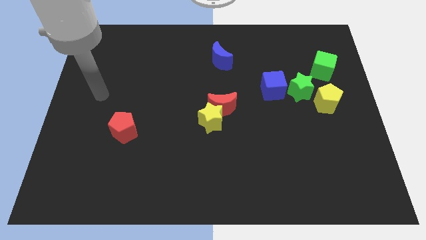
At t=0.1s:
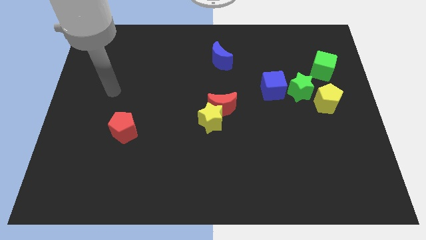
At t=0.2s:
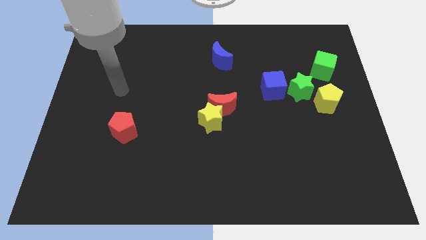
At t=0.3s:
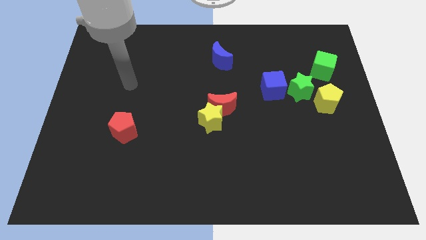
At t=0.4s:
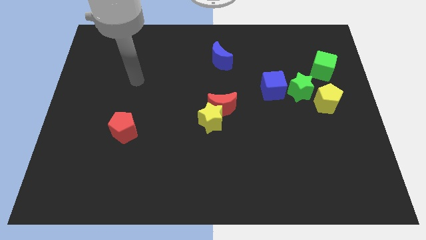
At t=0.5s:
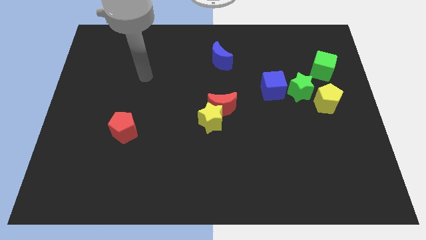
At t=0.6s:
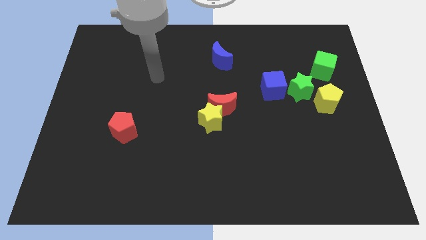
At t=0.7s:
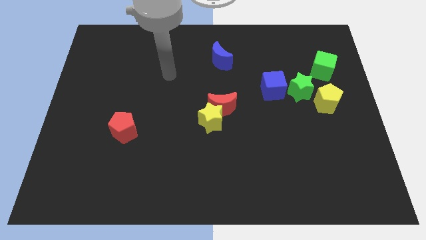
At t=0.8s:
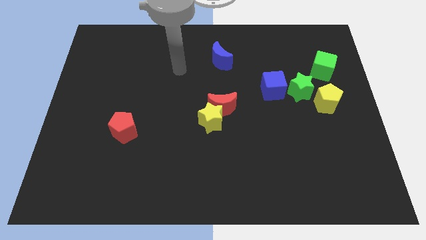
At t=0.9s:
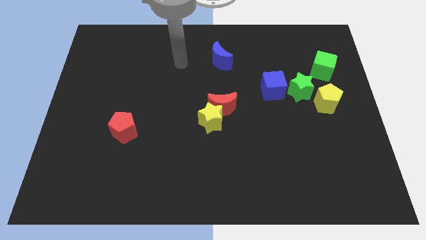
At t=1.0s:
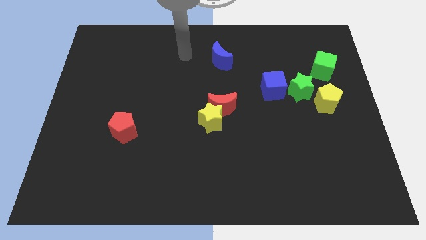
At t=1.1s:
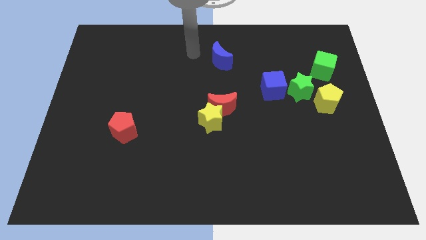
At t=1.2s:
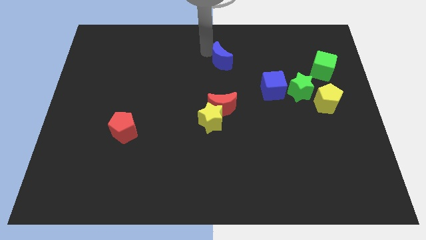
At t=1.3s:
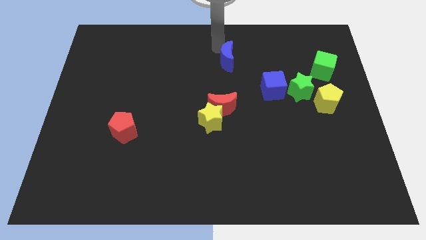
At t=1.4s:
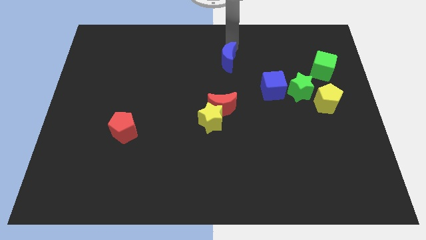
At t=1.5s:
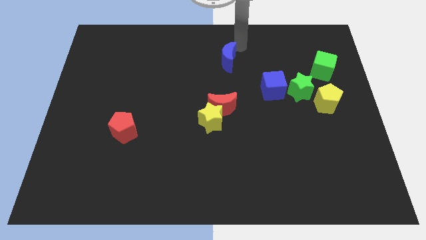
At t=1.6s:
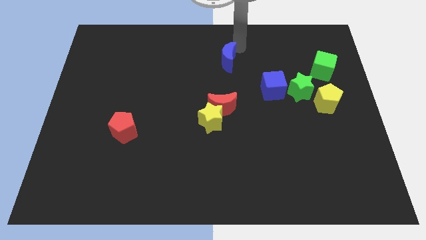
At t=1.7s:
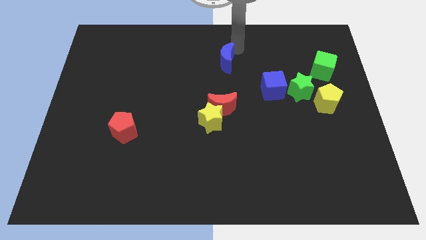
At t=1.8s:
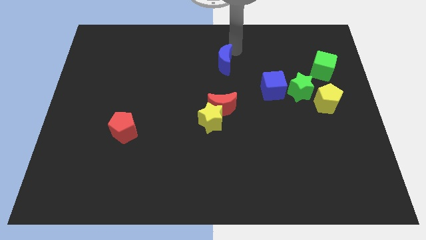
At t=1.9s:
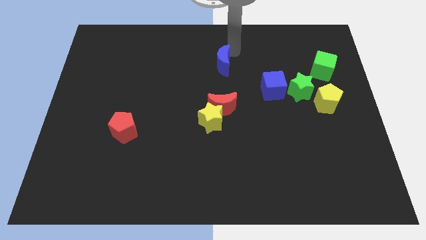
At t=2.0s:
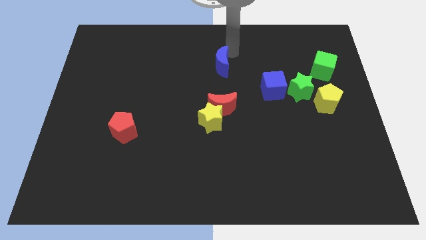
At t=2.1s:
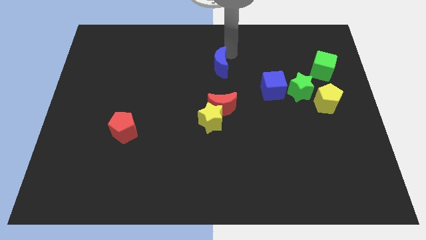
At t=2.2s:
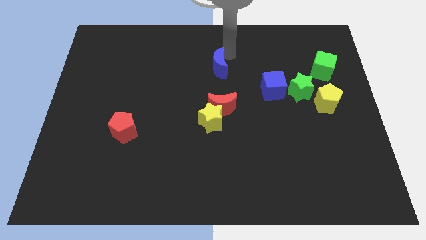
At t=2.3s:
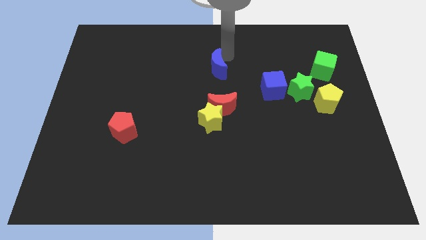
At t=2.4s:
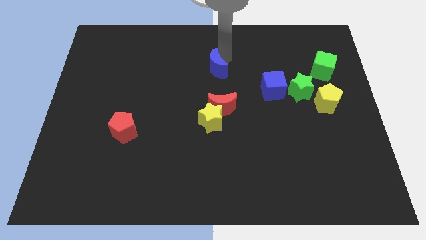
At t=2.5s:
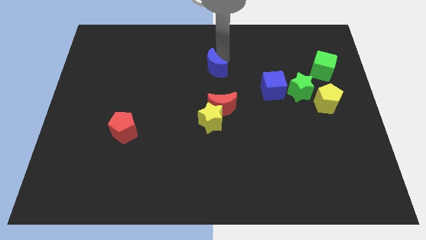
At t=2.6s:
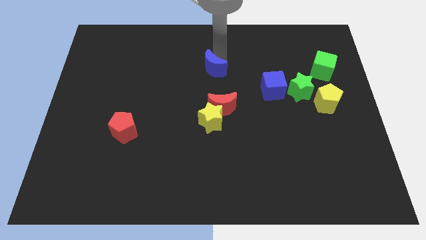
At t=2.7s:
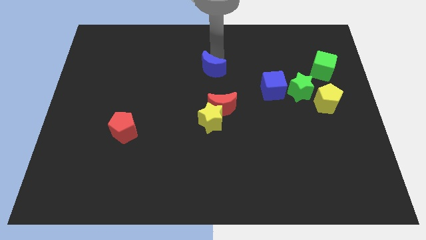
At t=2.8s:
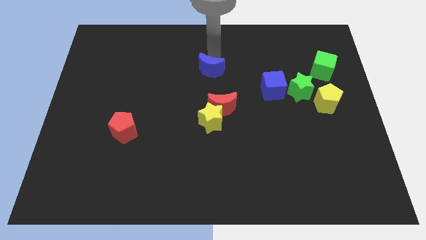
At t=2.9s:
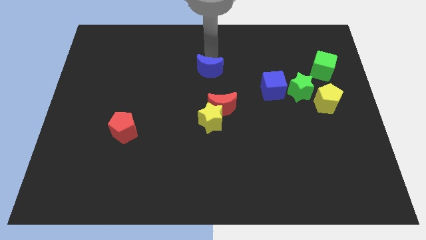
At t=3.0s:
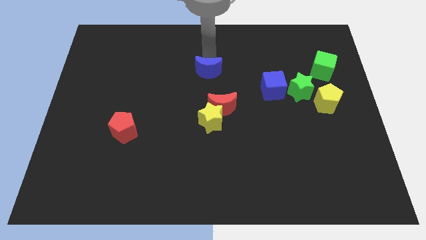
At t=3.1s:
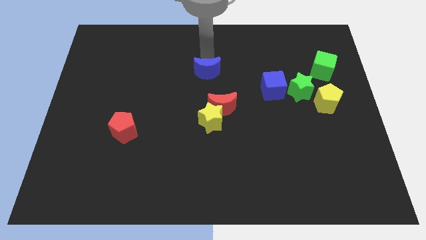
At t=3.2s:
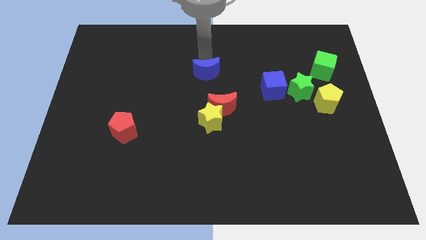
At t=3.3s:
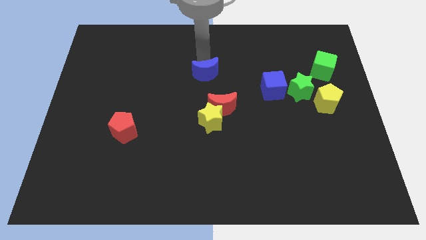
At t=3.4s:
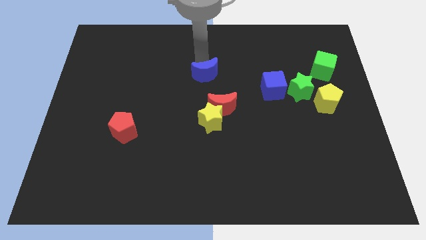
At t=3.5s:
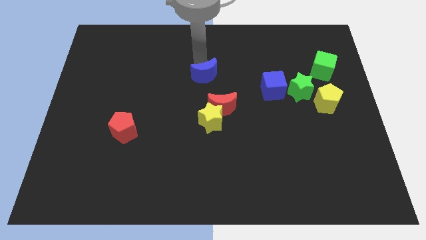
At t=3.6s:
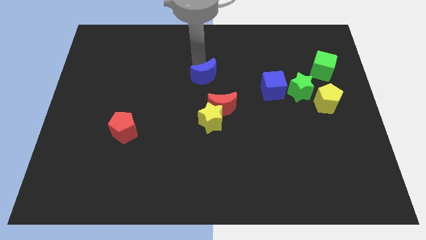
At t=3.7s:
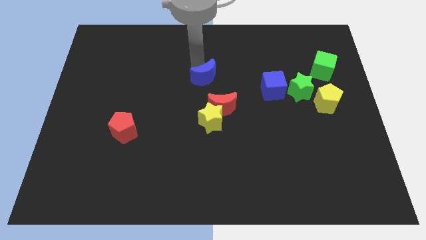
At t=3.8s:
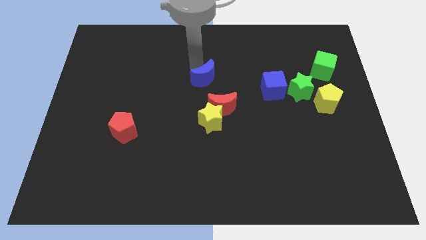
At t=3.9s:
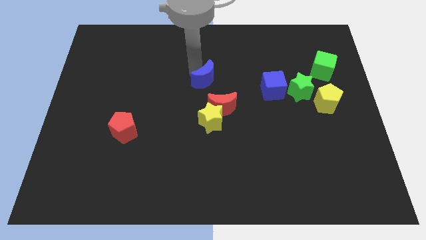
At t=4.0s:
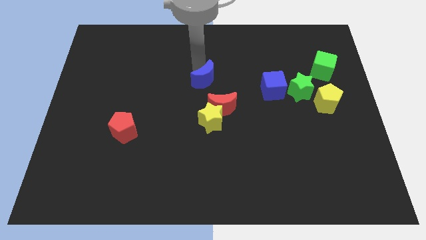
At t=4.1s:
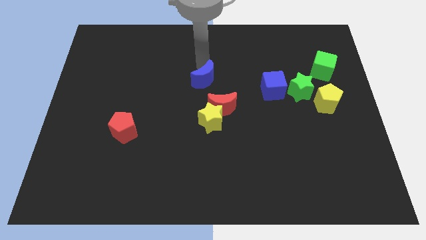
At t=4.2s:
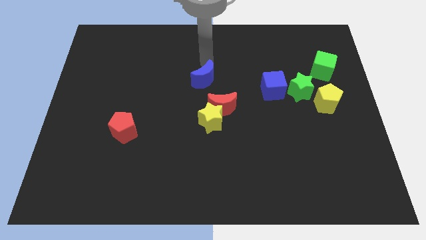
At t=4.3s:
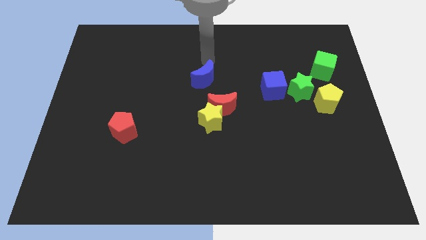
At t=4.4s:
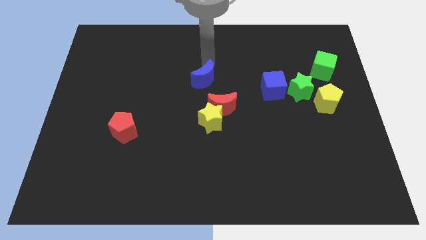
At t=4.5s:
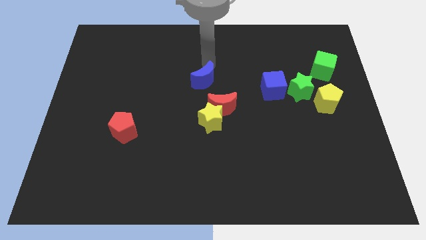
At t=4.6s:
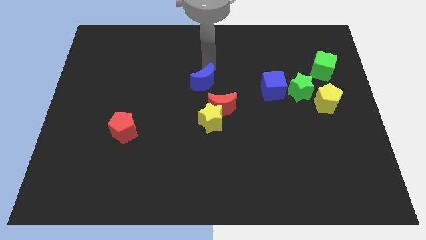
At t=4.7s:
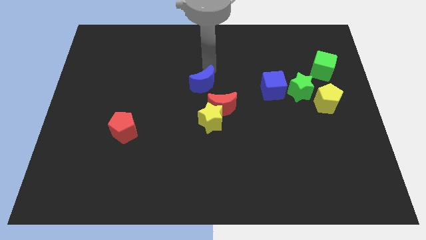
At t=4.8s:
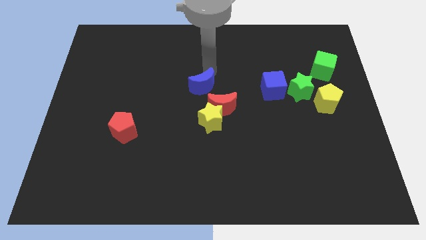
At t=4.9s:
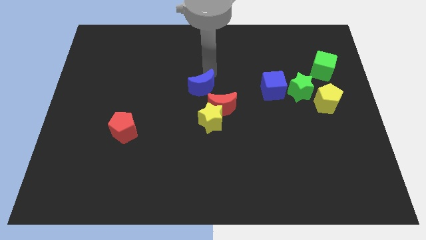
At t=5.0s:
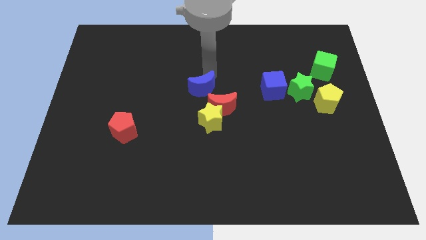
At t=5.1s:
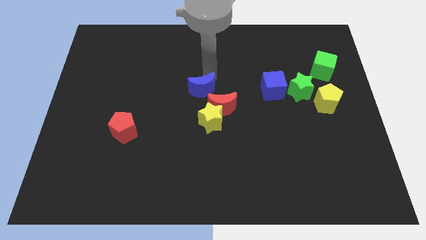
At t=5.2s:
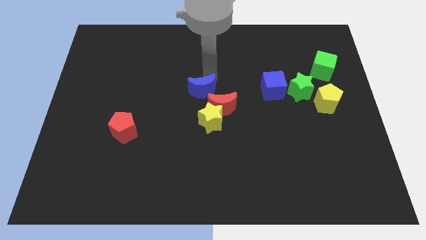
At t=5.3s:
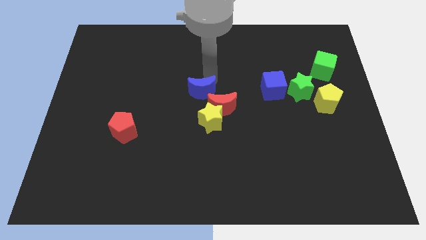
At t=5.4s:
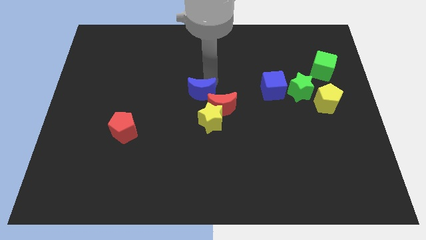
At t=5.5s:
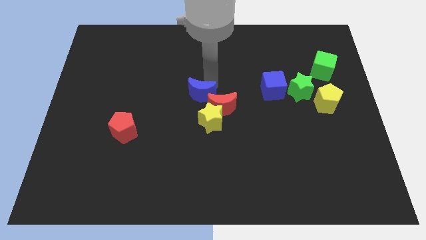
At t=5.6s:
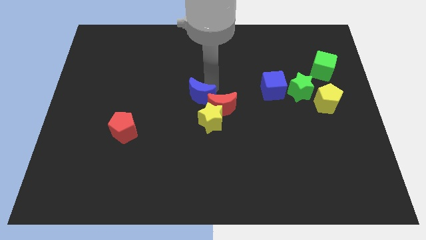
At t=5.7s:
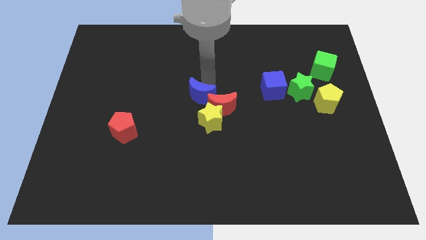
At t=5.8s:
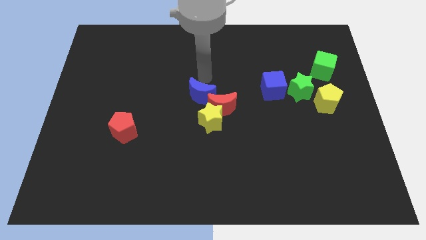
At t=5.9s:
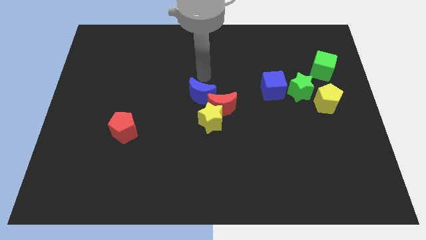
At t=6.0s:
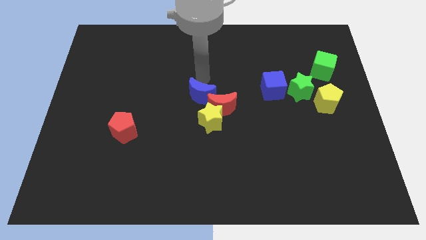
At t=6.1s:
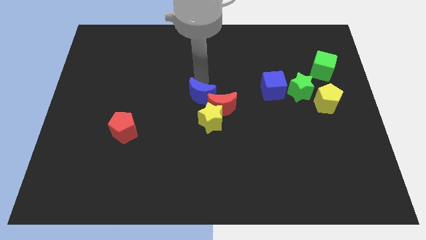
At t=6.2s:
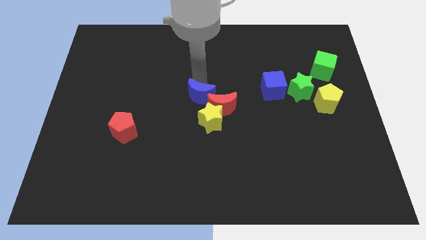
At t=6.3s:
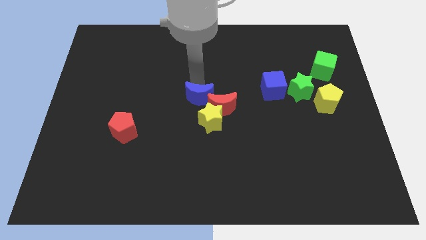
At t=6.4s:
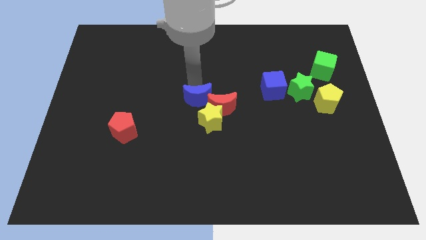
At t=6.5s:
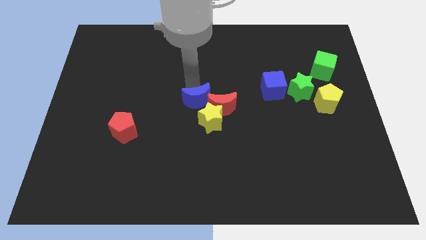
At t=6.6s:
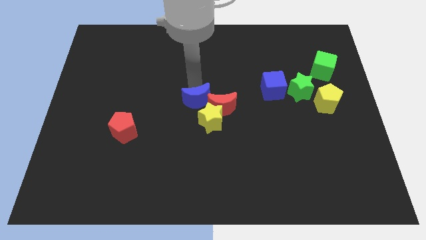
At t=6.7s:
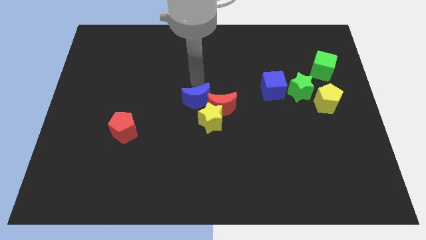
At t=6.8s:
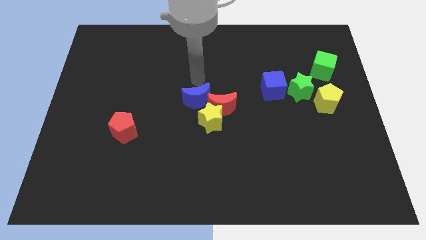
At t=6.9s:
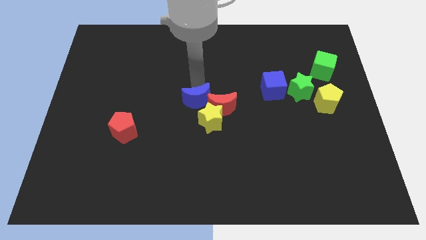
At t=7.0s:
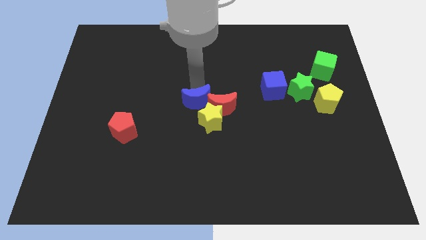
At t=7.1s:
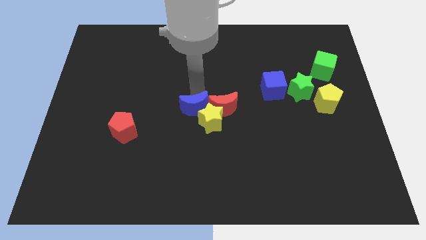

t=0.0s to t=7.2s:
push the blue moon next to the yellow star

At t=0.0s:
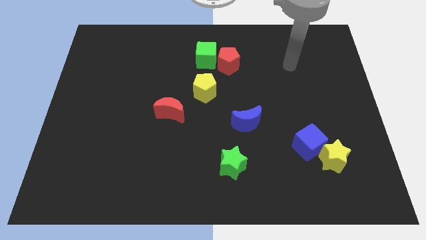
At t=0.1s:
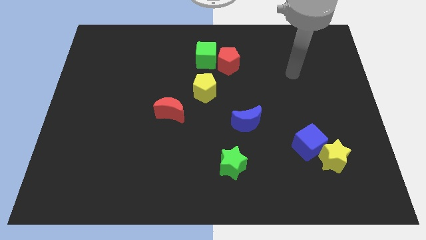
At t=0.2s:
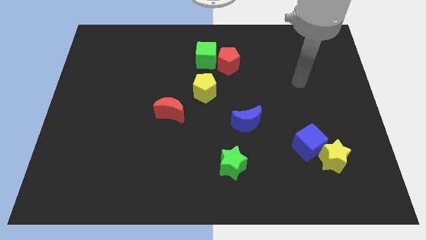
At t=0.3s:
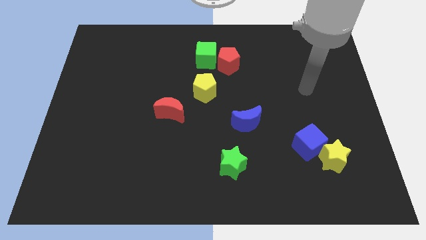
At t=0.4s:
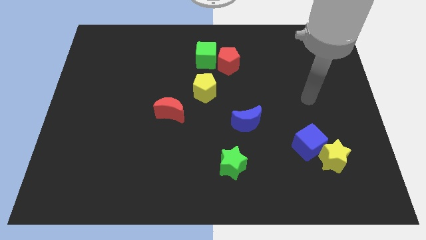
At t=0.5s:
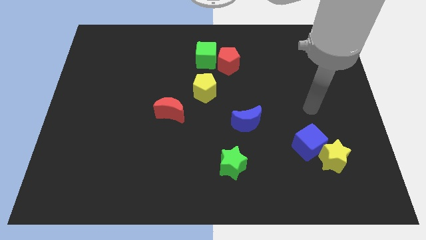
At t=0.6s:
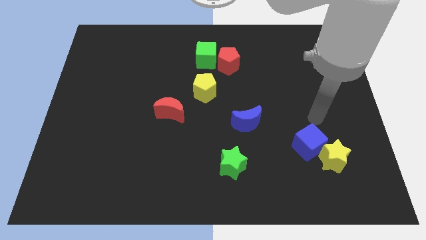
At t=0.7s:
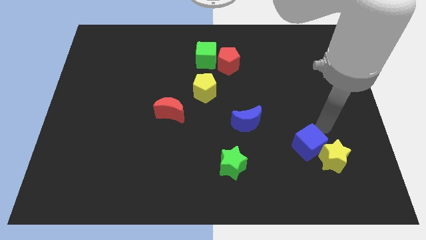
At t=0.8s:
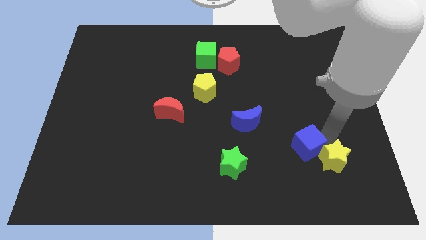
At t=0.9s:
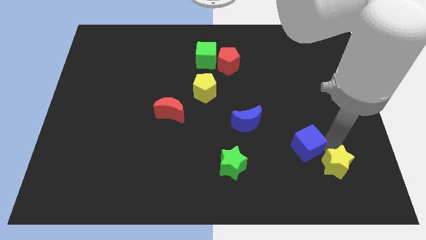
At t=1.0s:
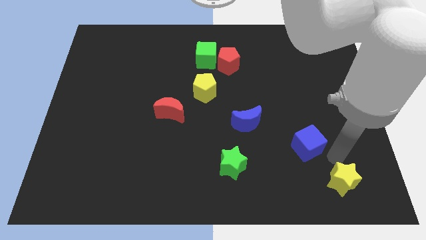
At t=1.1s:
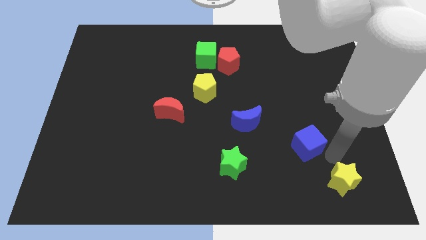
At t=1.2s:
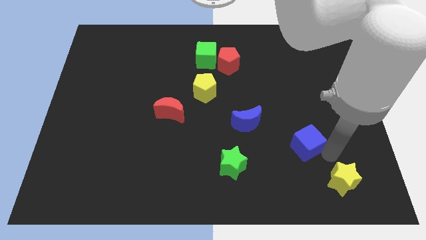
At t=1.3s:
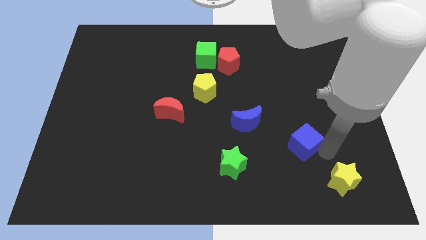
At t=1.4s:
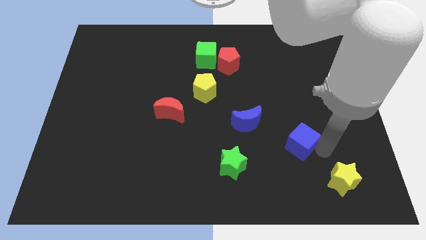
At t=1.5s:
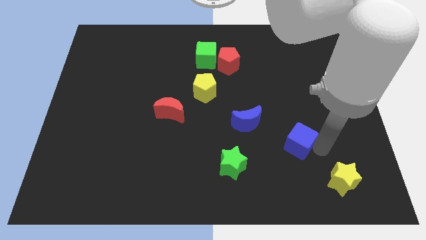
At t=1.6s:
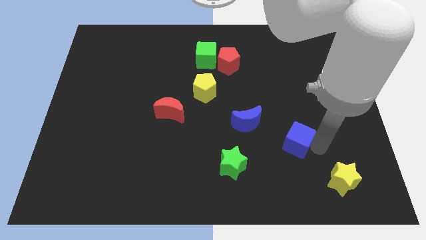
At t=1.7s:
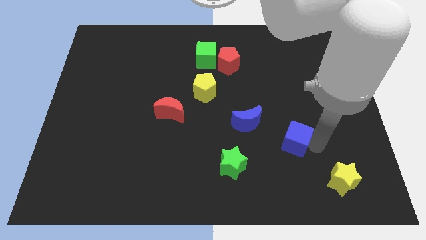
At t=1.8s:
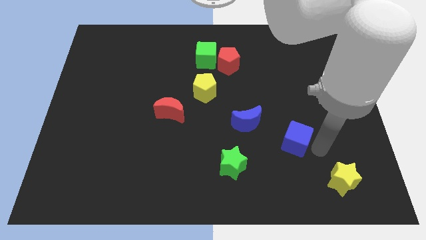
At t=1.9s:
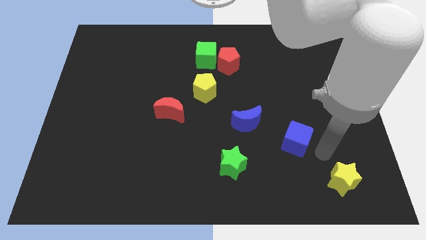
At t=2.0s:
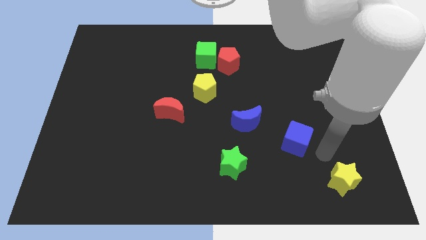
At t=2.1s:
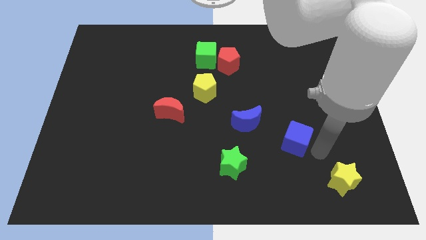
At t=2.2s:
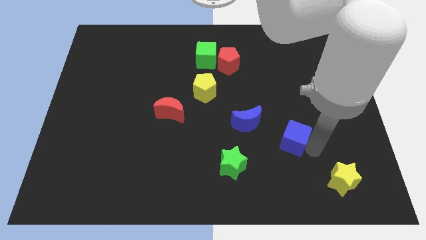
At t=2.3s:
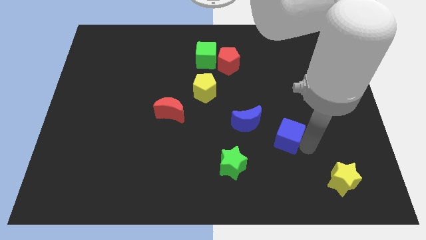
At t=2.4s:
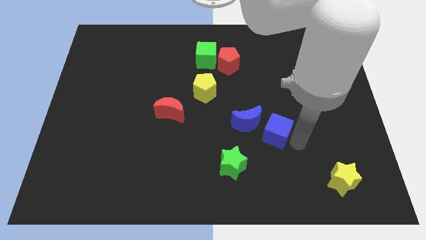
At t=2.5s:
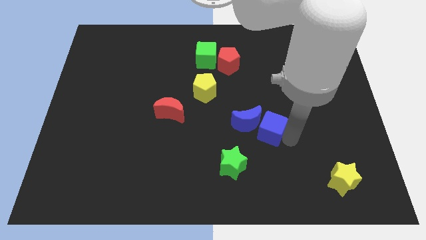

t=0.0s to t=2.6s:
push the blue cube close to the blue moon
